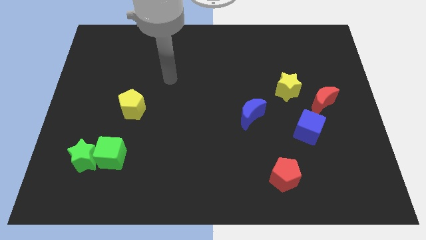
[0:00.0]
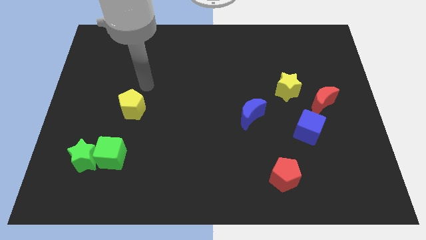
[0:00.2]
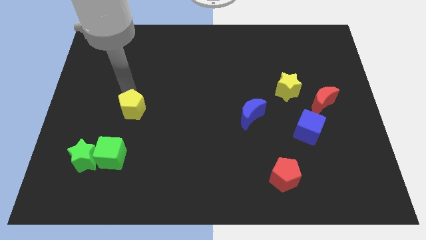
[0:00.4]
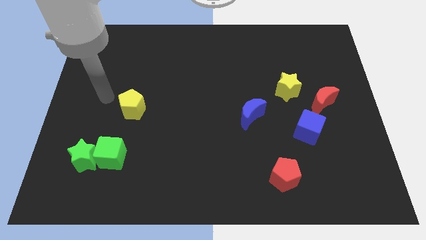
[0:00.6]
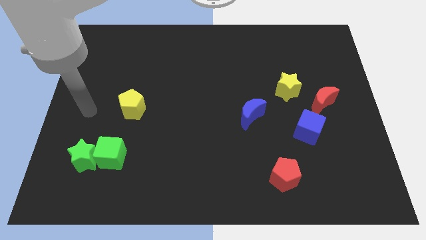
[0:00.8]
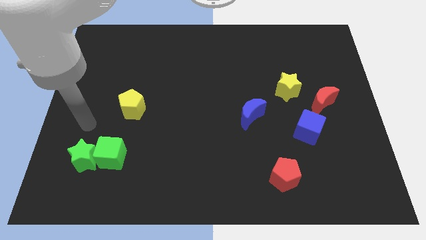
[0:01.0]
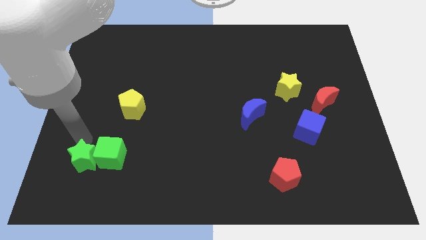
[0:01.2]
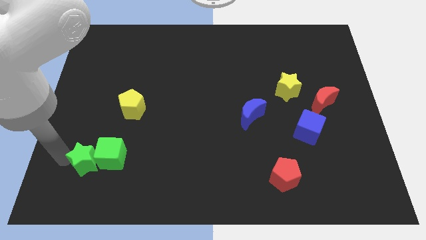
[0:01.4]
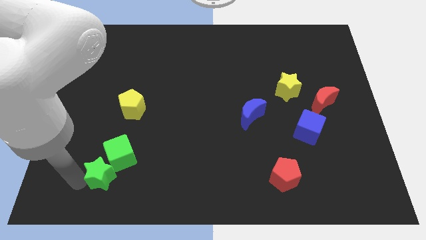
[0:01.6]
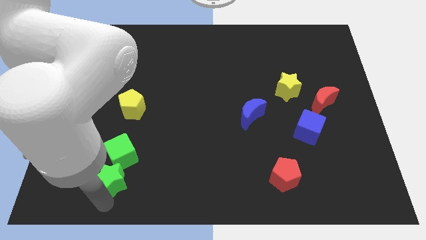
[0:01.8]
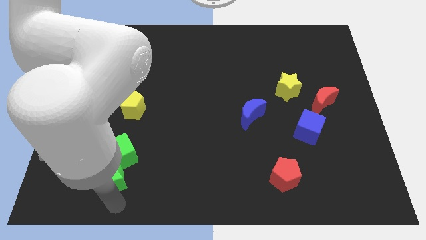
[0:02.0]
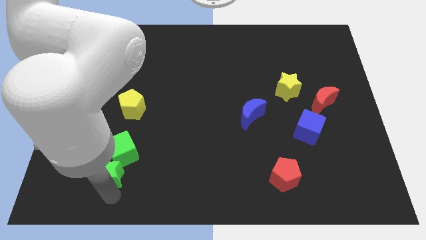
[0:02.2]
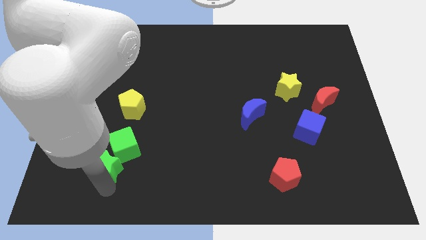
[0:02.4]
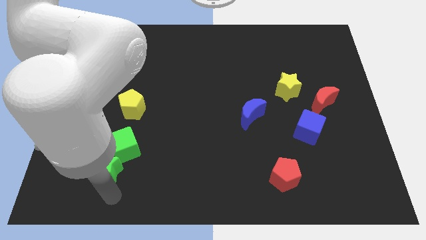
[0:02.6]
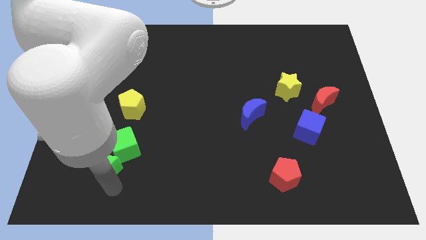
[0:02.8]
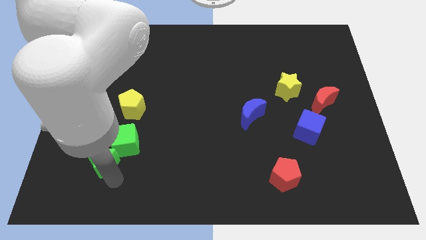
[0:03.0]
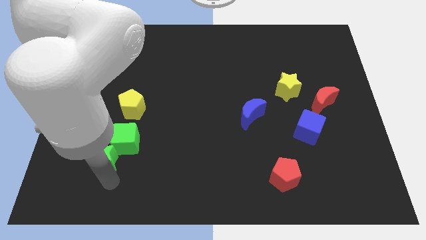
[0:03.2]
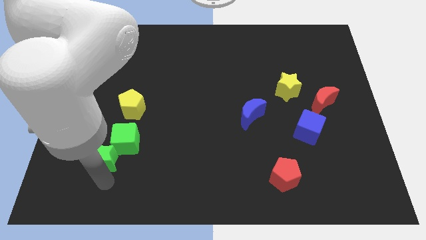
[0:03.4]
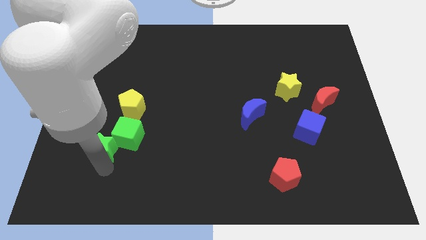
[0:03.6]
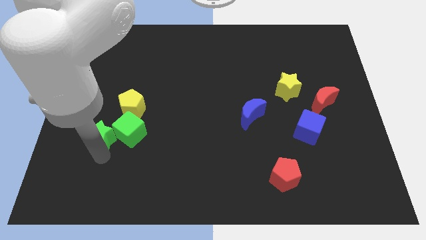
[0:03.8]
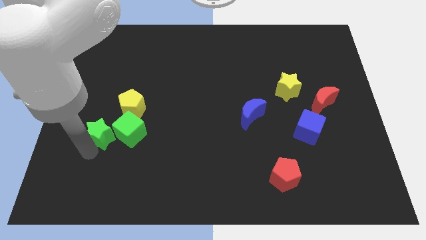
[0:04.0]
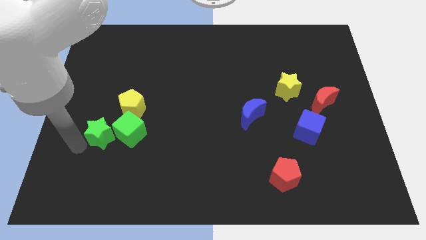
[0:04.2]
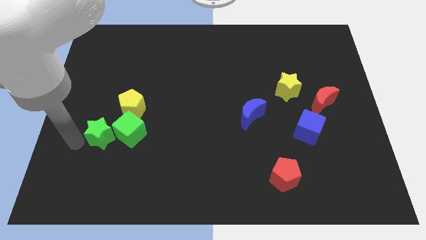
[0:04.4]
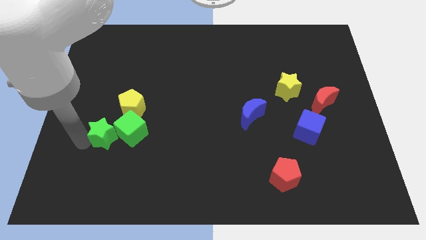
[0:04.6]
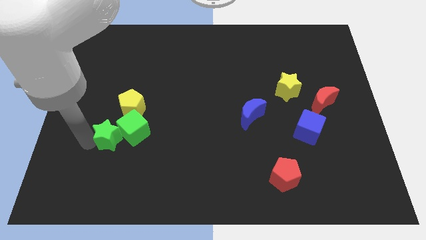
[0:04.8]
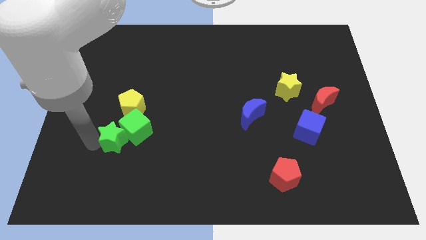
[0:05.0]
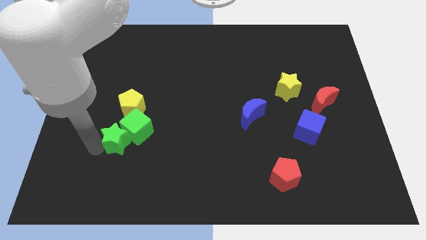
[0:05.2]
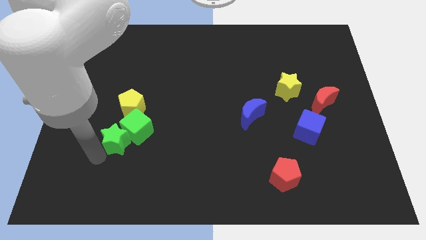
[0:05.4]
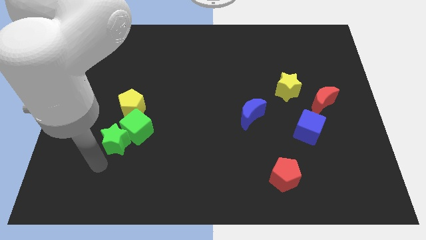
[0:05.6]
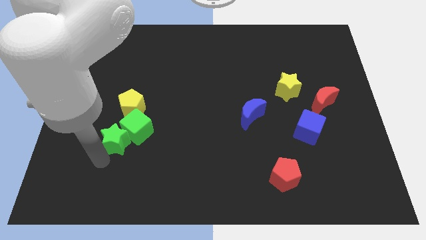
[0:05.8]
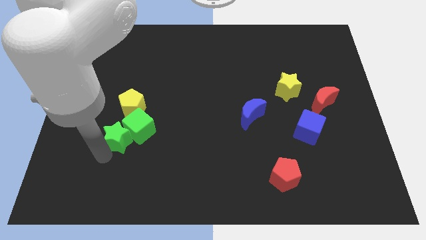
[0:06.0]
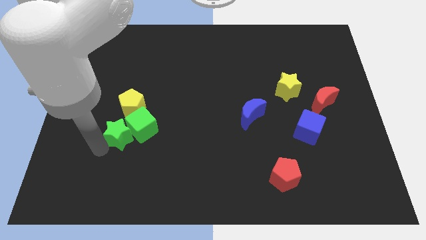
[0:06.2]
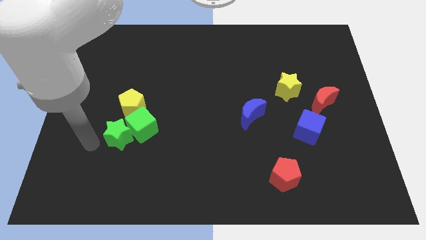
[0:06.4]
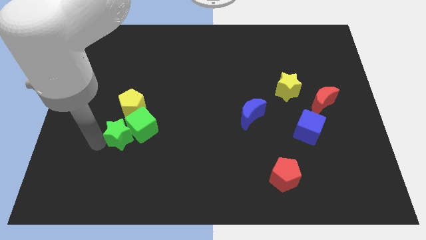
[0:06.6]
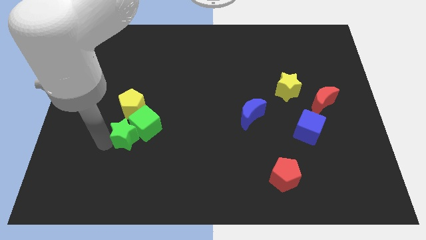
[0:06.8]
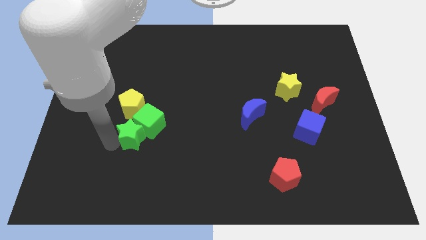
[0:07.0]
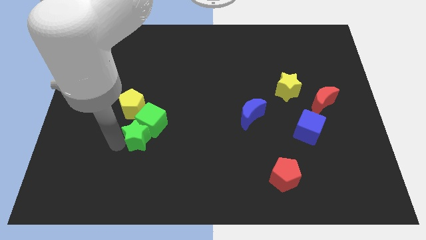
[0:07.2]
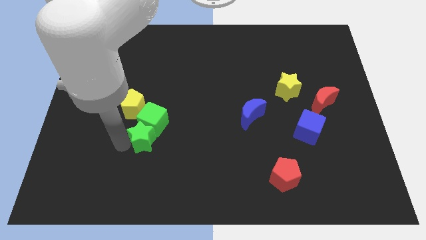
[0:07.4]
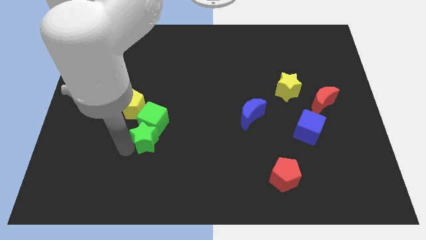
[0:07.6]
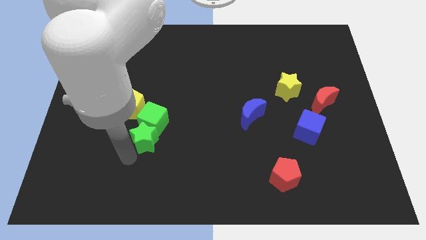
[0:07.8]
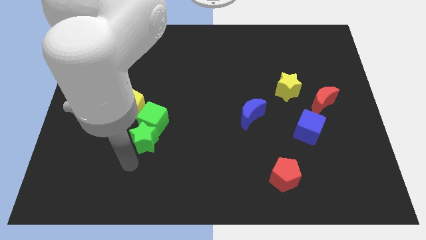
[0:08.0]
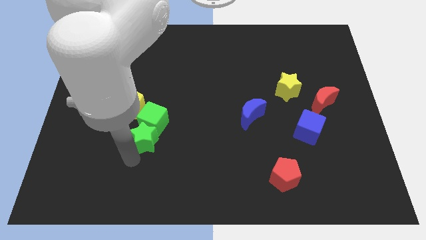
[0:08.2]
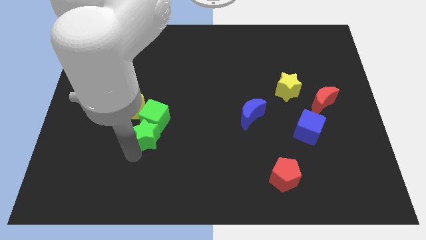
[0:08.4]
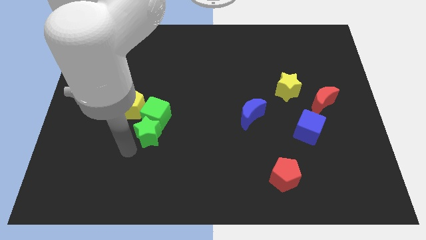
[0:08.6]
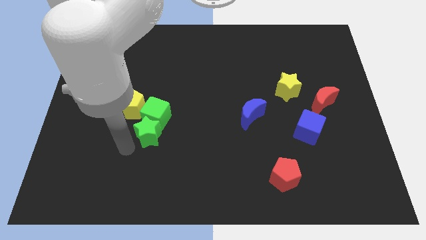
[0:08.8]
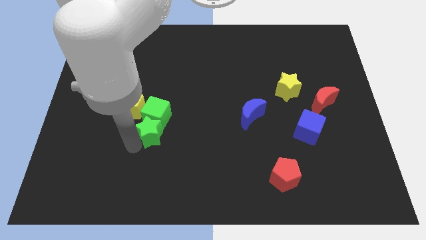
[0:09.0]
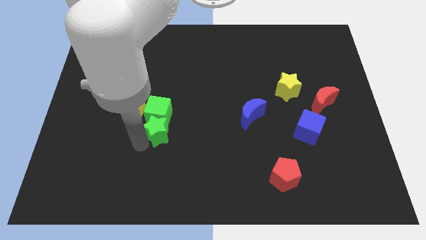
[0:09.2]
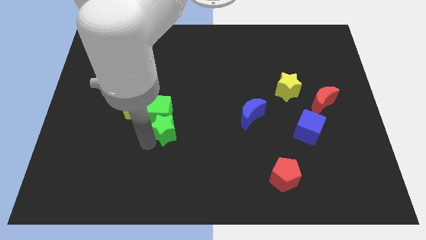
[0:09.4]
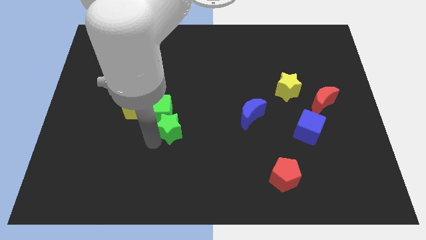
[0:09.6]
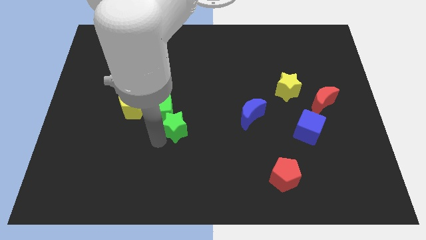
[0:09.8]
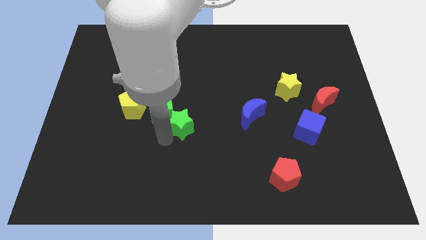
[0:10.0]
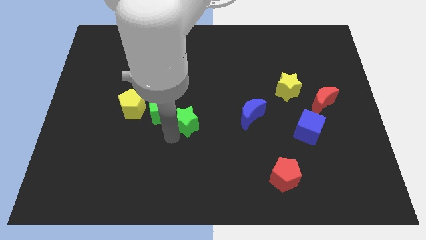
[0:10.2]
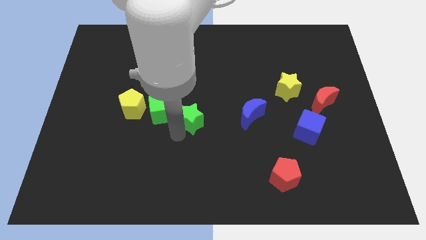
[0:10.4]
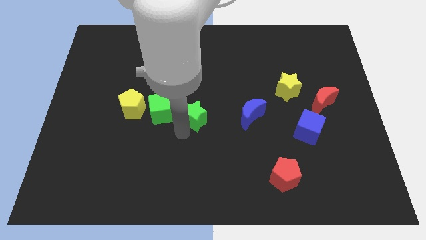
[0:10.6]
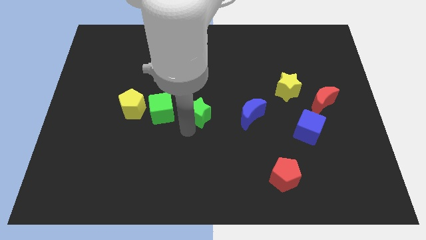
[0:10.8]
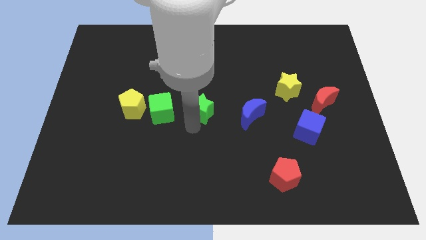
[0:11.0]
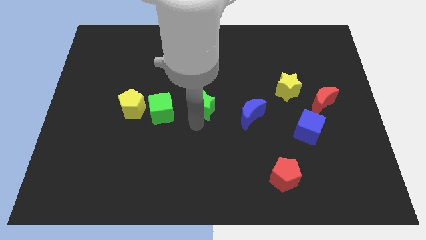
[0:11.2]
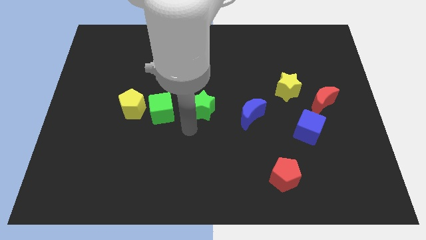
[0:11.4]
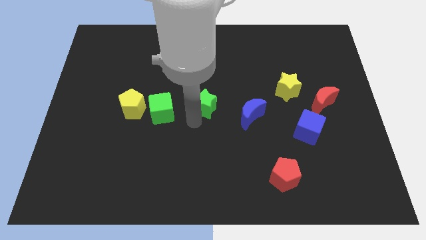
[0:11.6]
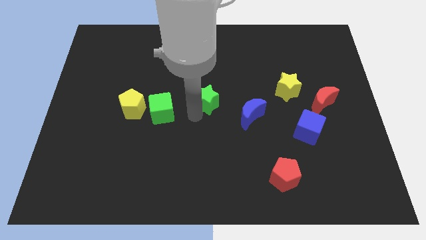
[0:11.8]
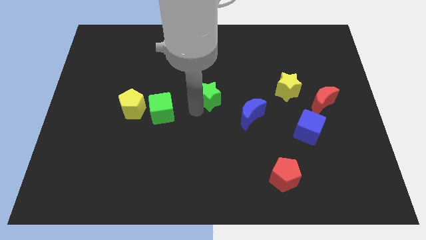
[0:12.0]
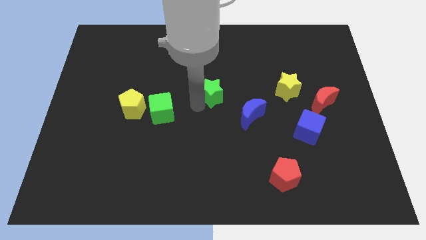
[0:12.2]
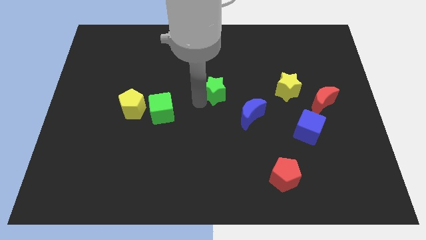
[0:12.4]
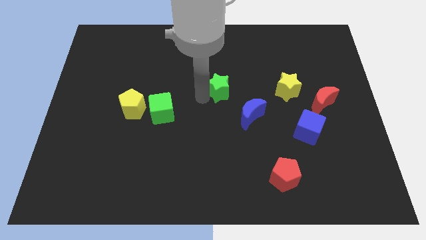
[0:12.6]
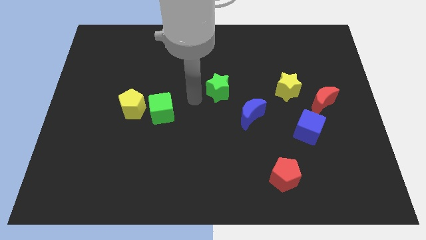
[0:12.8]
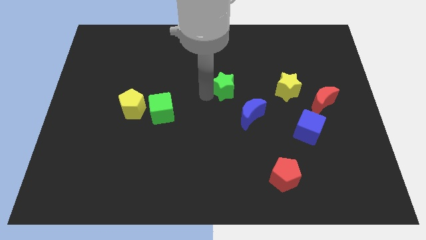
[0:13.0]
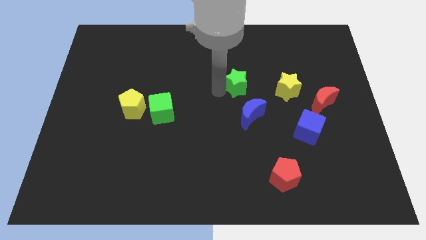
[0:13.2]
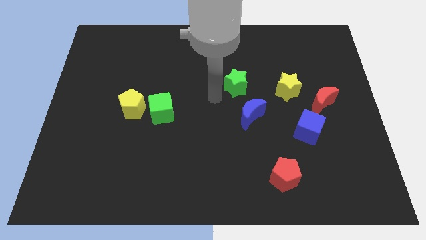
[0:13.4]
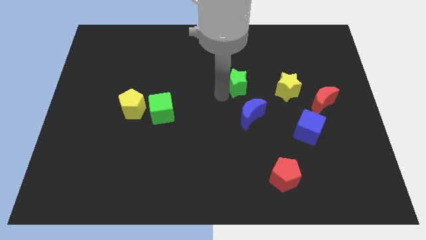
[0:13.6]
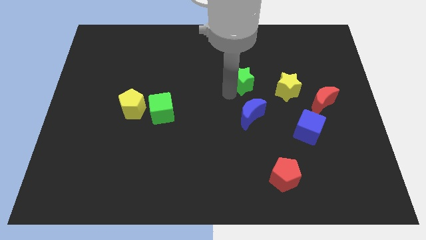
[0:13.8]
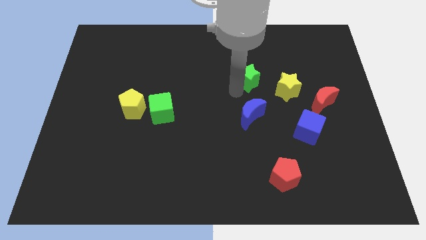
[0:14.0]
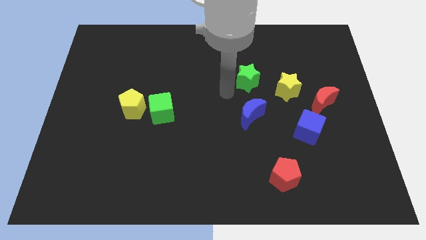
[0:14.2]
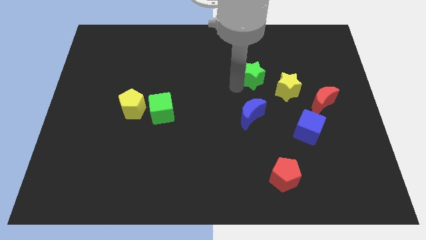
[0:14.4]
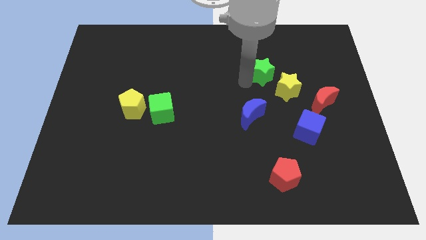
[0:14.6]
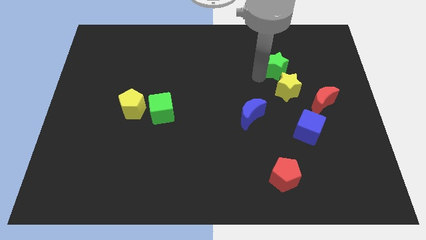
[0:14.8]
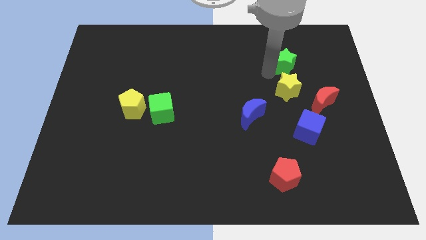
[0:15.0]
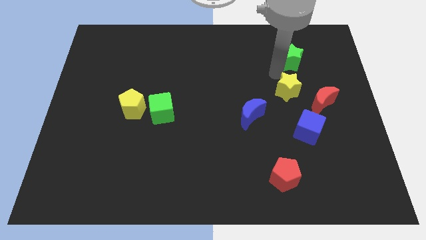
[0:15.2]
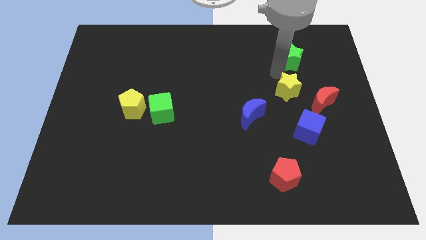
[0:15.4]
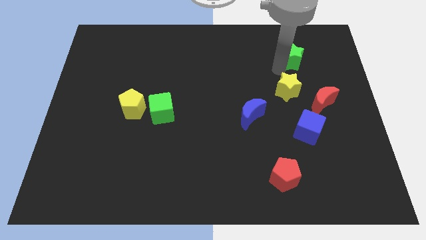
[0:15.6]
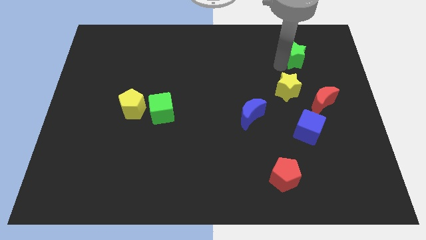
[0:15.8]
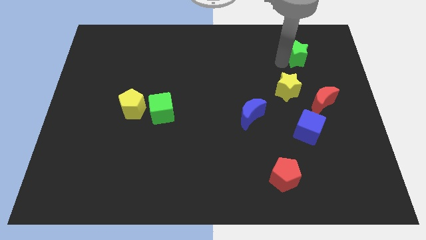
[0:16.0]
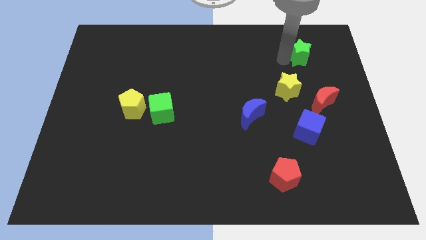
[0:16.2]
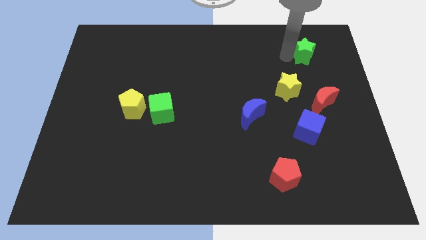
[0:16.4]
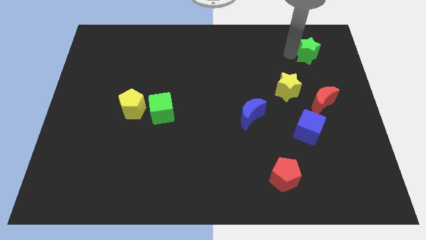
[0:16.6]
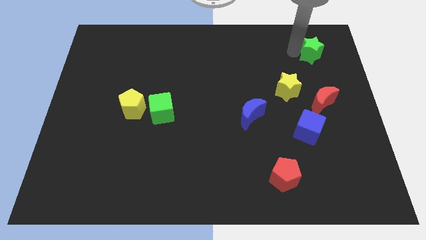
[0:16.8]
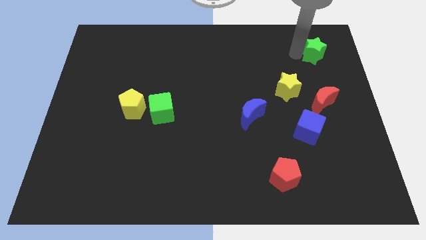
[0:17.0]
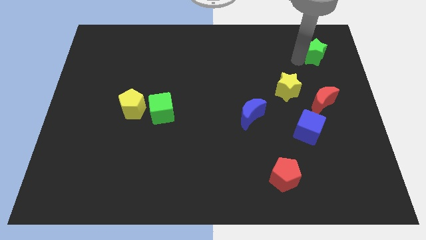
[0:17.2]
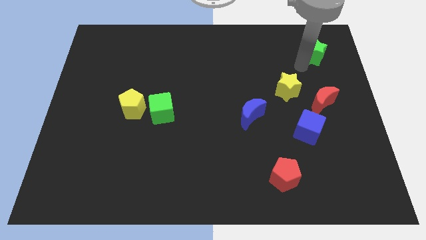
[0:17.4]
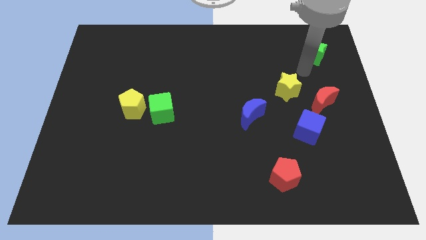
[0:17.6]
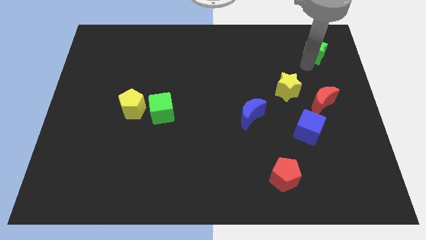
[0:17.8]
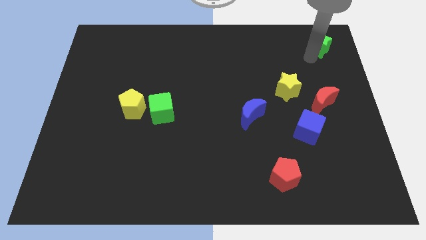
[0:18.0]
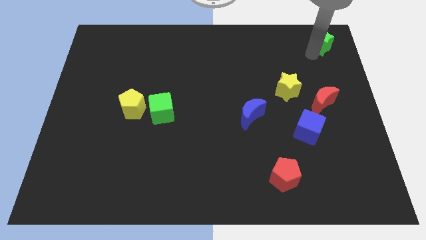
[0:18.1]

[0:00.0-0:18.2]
slide the green star to the top right
